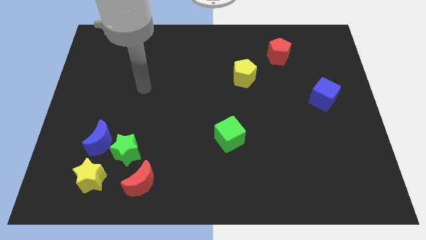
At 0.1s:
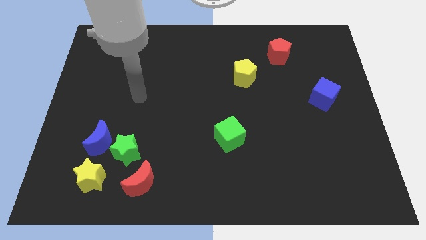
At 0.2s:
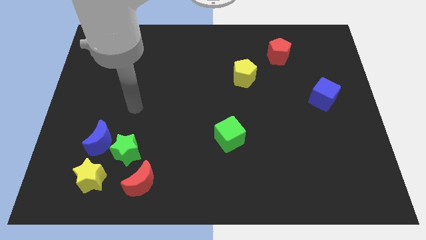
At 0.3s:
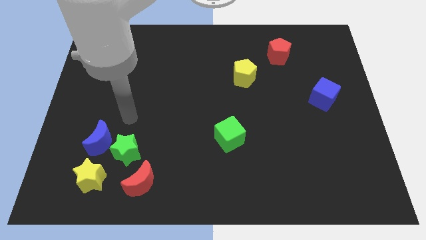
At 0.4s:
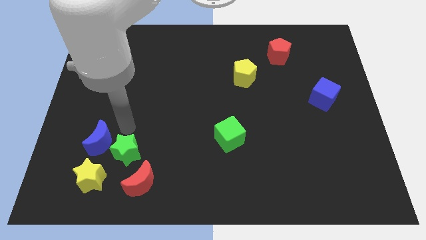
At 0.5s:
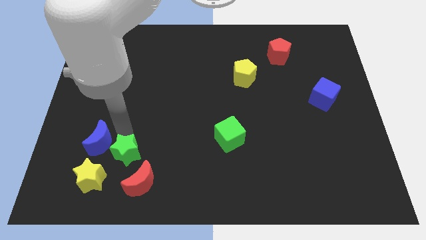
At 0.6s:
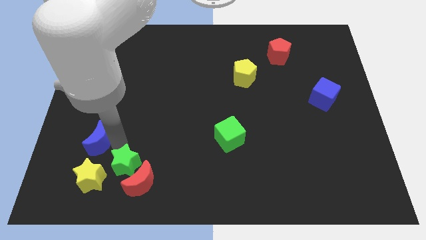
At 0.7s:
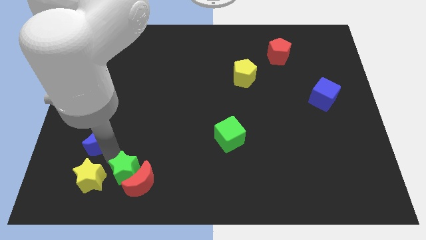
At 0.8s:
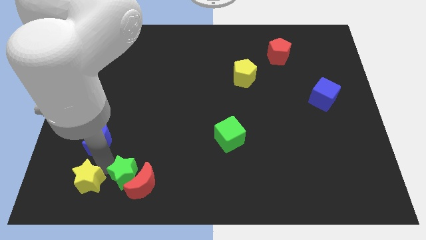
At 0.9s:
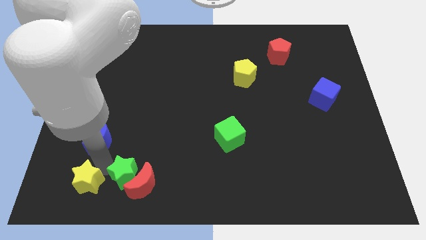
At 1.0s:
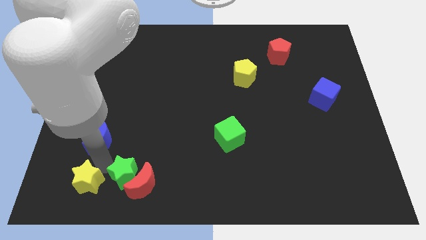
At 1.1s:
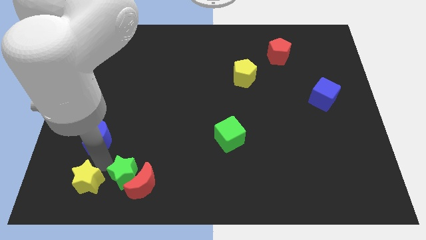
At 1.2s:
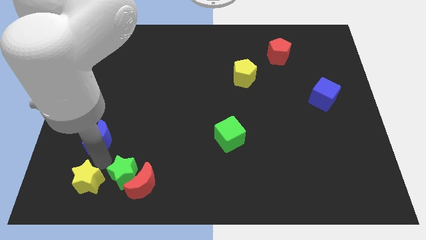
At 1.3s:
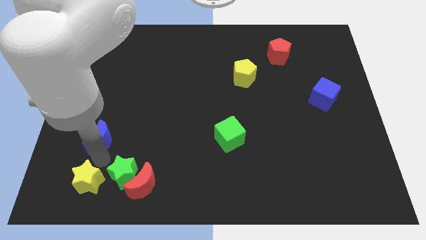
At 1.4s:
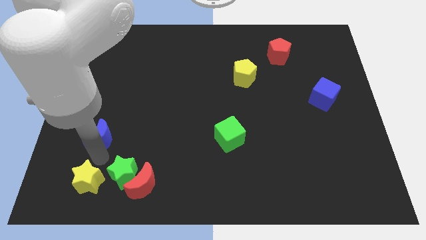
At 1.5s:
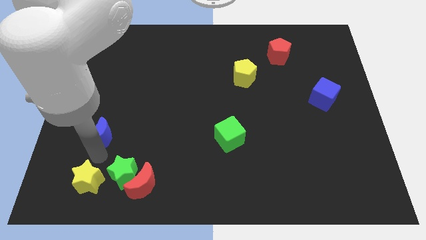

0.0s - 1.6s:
pull the blue moon apart from the green star and yellow star

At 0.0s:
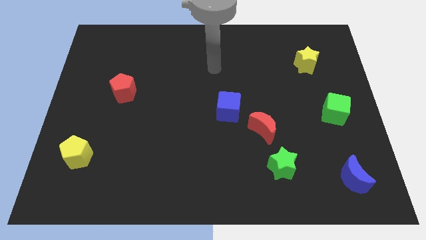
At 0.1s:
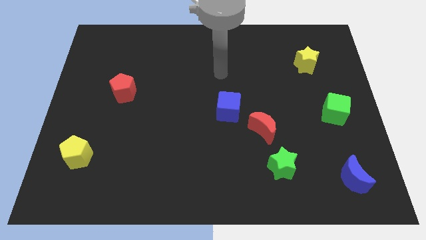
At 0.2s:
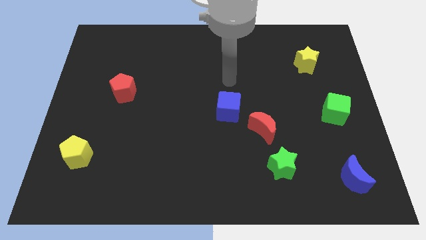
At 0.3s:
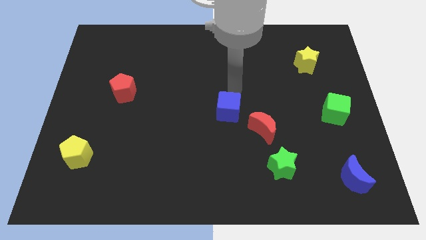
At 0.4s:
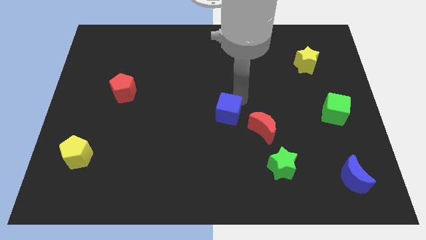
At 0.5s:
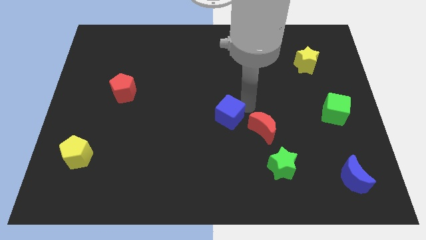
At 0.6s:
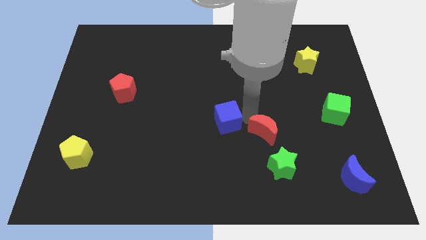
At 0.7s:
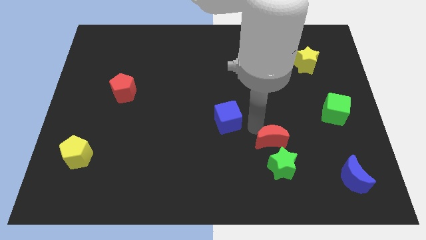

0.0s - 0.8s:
pull the blue cube apart from the red moon

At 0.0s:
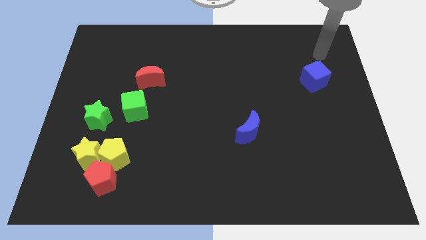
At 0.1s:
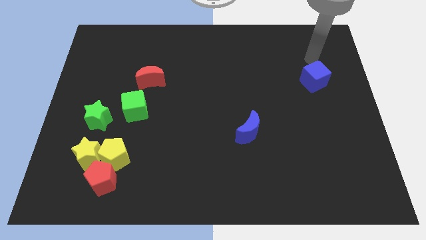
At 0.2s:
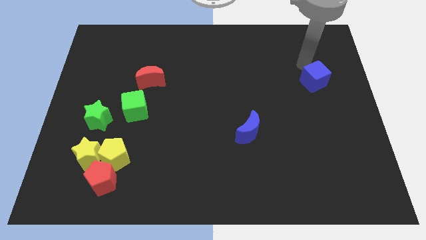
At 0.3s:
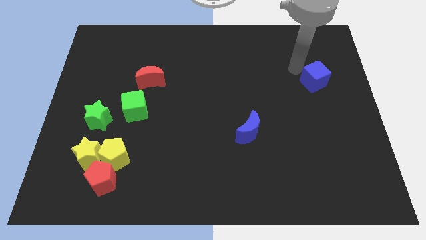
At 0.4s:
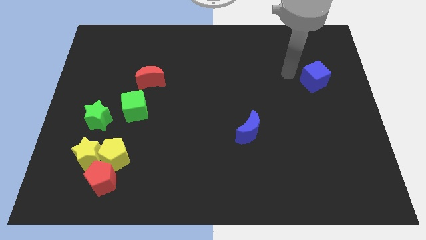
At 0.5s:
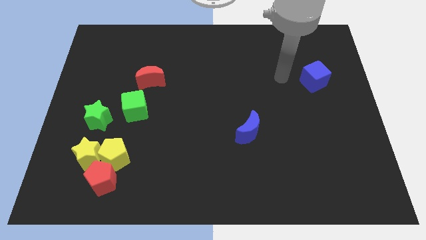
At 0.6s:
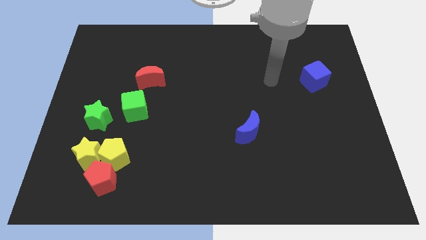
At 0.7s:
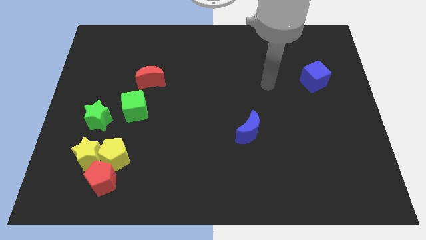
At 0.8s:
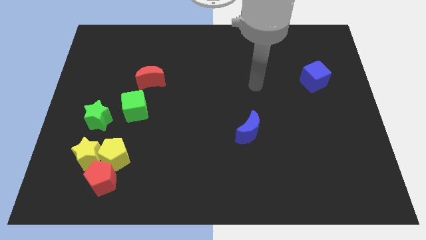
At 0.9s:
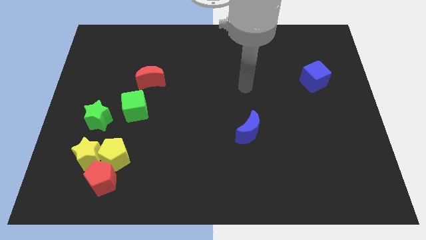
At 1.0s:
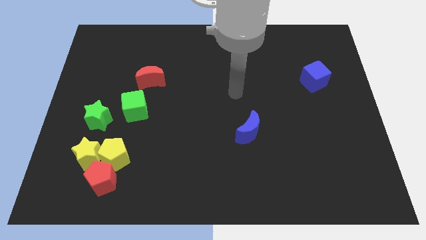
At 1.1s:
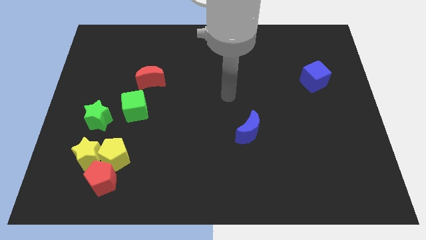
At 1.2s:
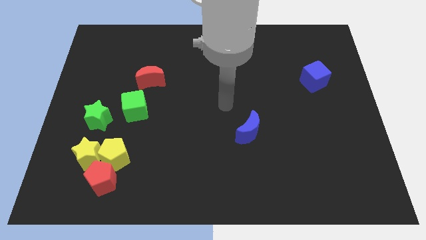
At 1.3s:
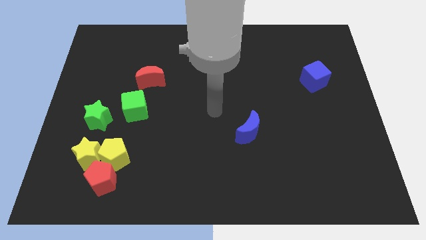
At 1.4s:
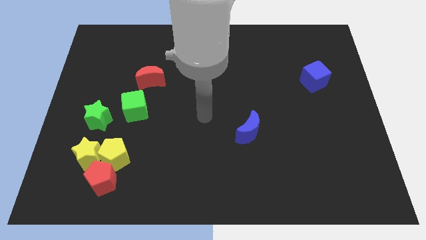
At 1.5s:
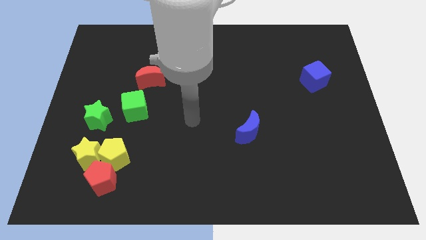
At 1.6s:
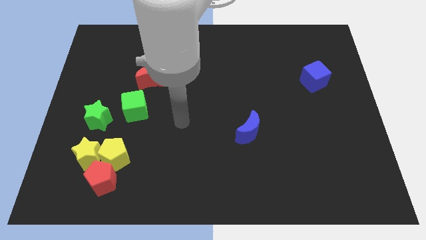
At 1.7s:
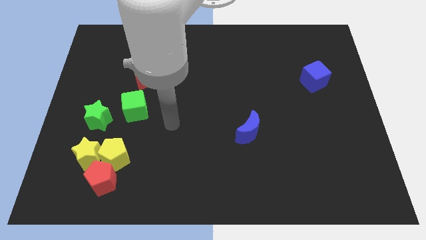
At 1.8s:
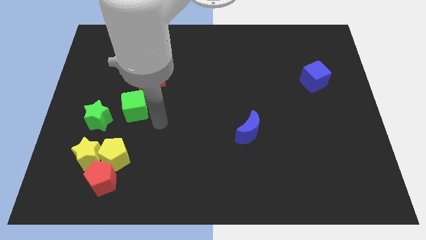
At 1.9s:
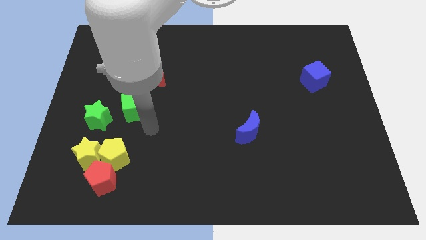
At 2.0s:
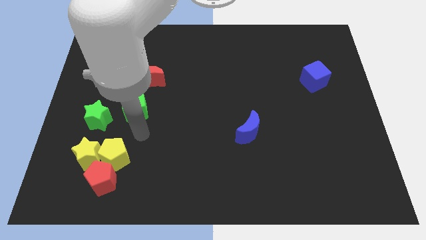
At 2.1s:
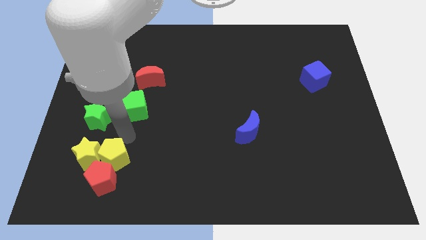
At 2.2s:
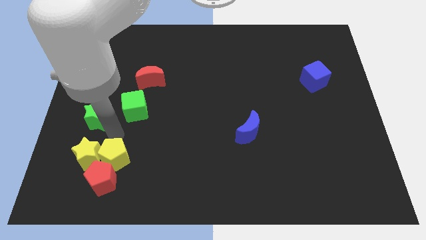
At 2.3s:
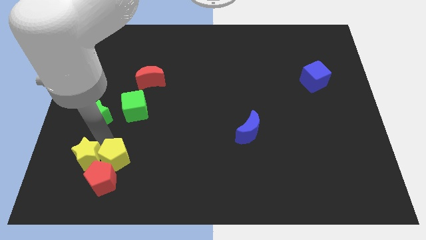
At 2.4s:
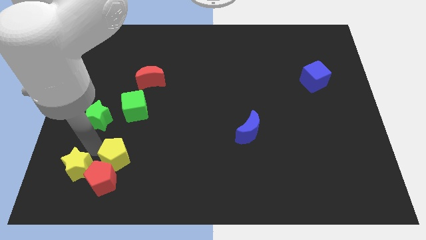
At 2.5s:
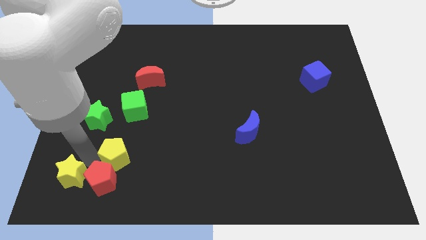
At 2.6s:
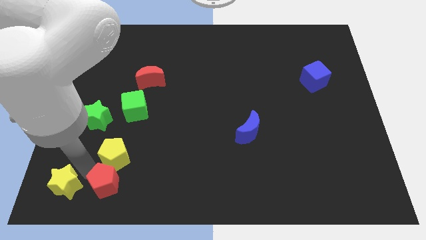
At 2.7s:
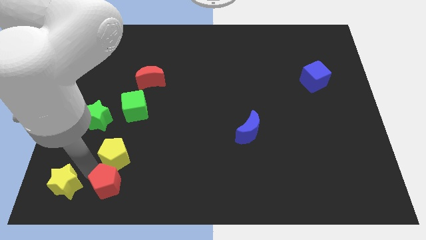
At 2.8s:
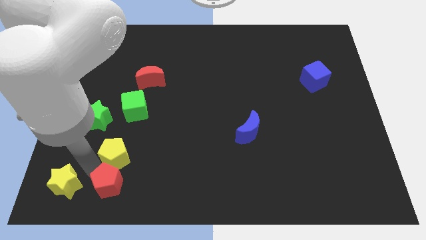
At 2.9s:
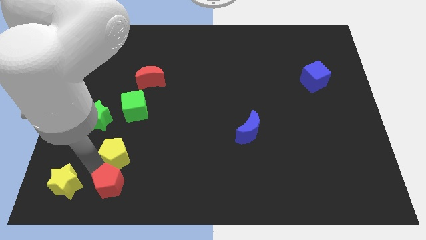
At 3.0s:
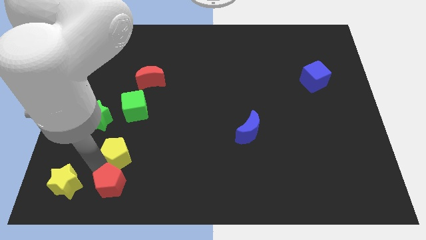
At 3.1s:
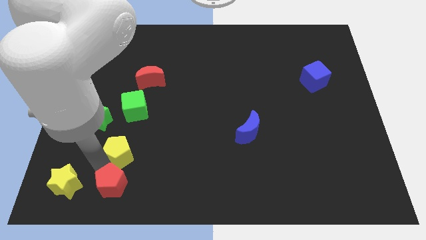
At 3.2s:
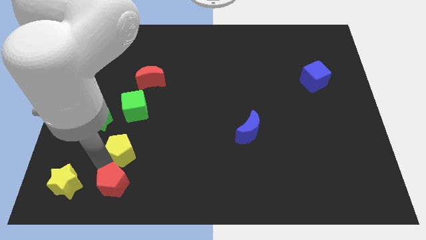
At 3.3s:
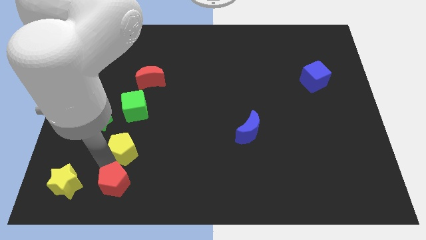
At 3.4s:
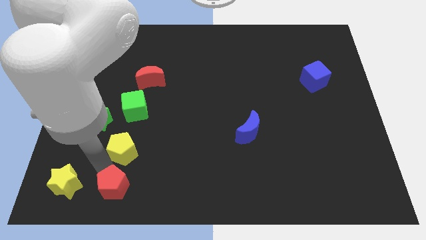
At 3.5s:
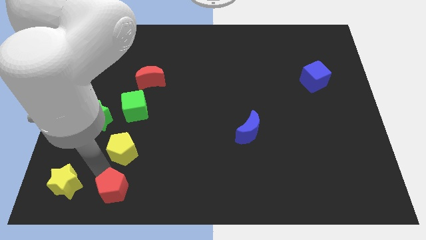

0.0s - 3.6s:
pull the yellow pentagon apart from the yellow star and red pentagon

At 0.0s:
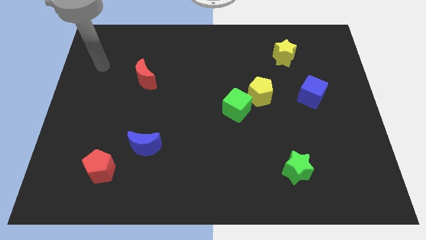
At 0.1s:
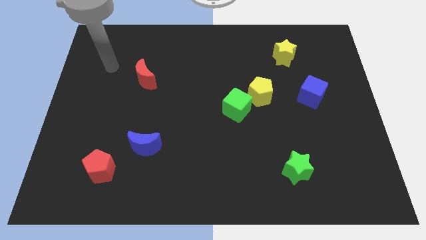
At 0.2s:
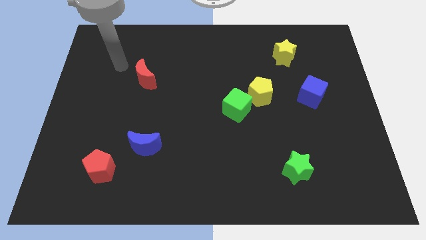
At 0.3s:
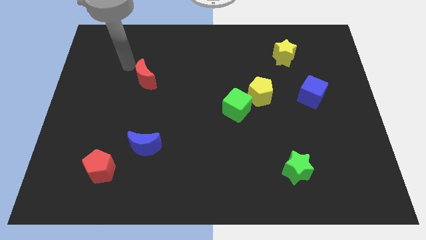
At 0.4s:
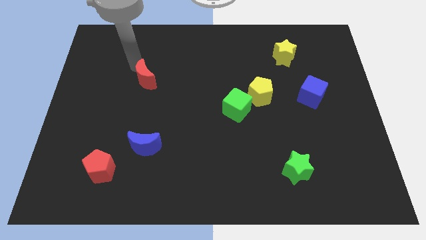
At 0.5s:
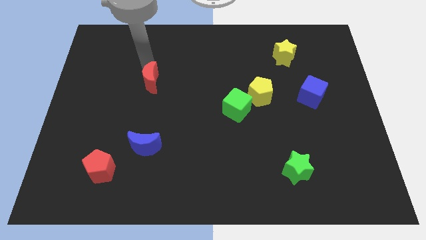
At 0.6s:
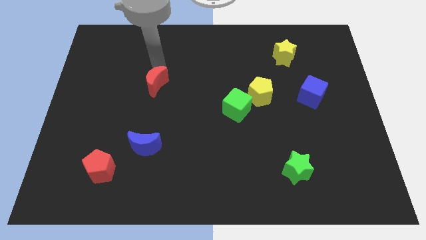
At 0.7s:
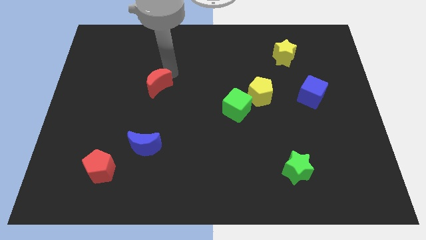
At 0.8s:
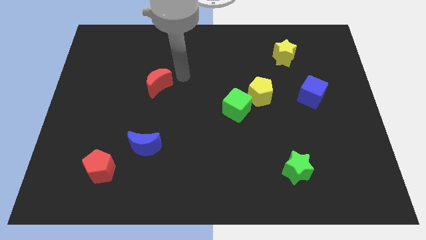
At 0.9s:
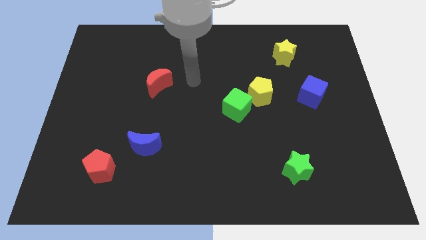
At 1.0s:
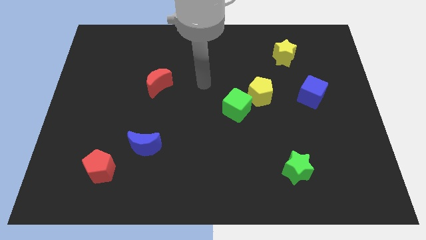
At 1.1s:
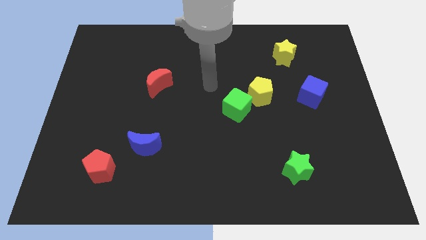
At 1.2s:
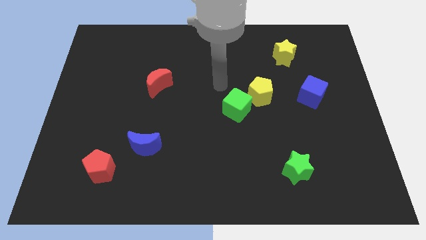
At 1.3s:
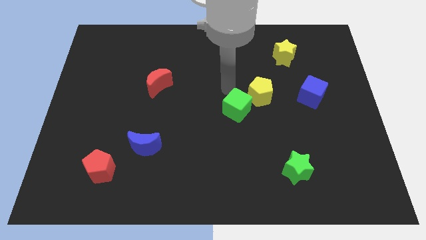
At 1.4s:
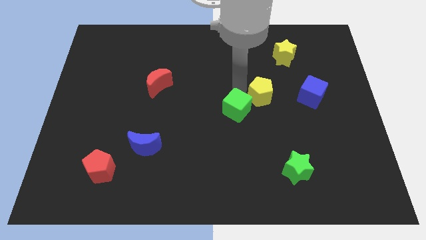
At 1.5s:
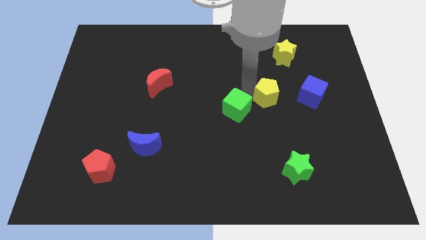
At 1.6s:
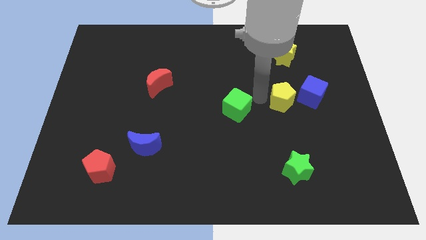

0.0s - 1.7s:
move the green cube away from the yellow pentagon

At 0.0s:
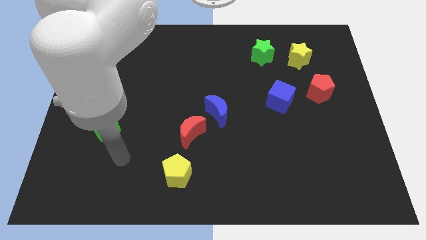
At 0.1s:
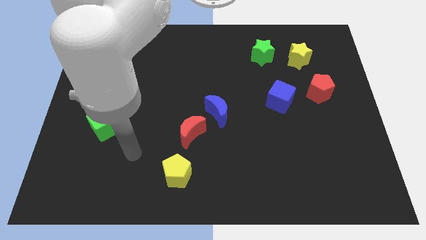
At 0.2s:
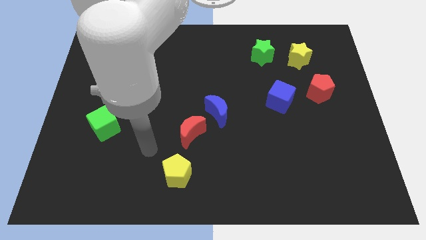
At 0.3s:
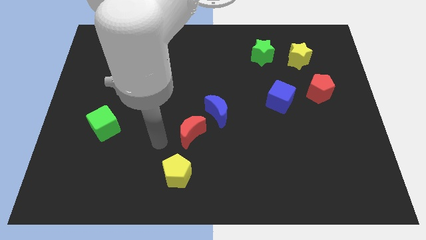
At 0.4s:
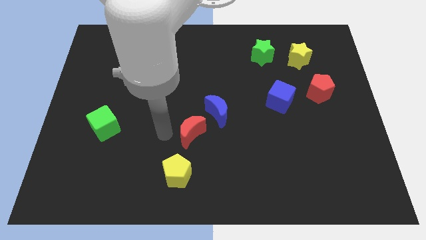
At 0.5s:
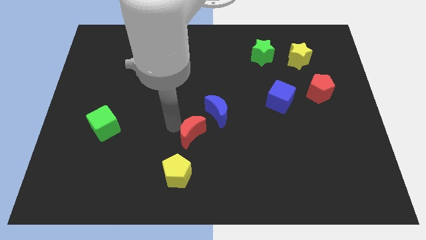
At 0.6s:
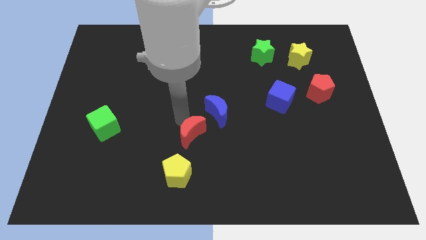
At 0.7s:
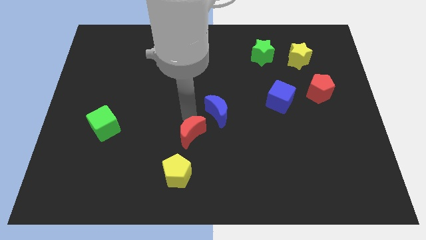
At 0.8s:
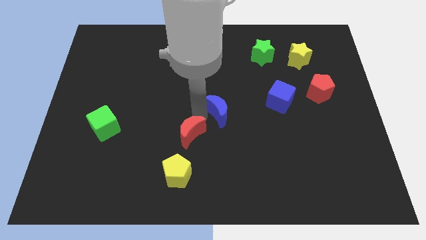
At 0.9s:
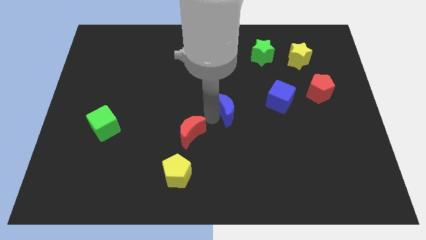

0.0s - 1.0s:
separate the red moon from the blue moon

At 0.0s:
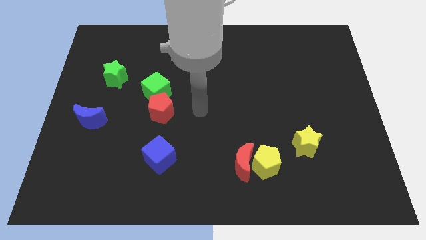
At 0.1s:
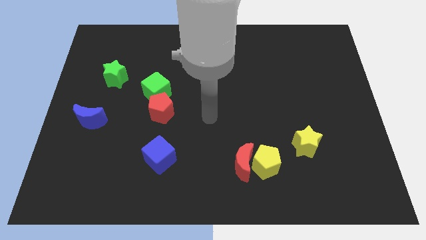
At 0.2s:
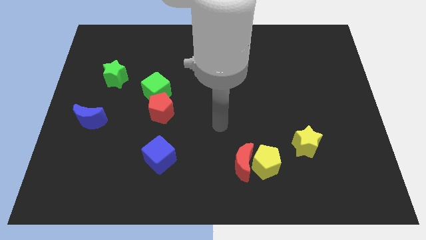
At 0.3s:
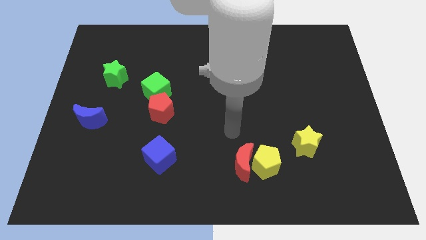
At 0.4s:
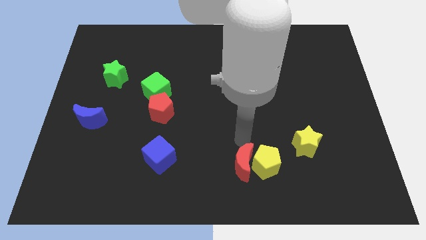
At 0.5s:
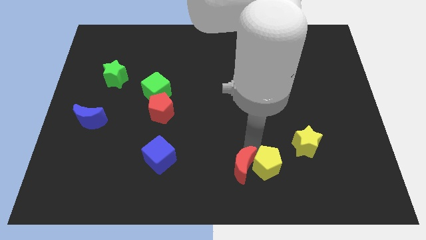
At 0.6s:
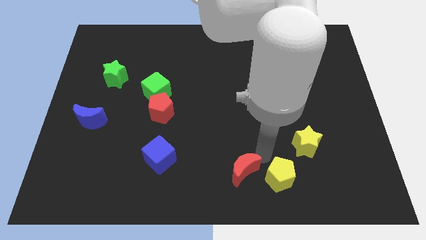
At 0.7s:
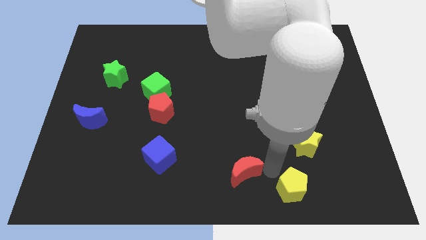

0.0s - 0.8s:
pull the red moon apart from the yellow pentagon
